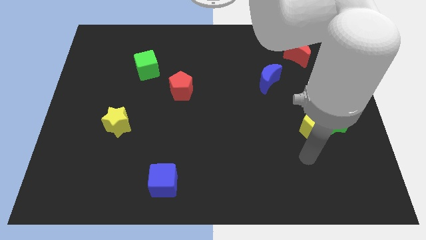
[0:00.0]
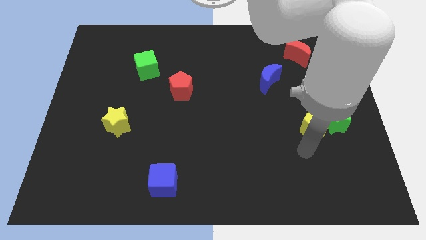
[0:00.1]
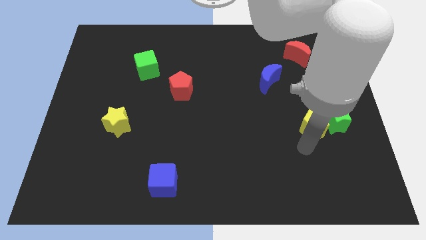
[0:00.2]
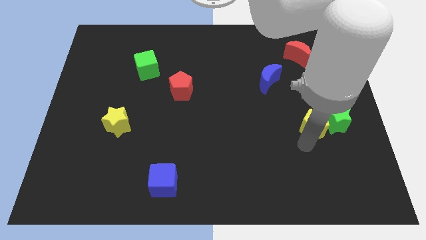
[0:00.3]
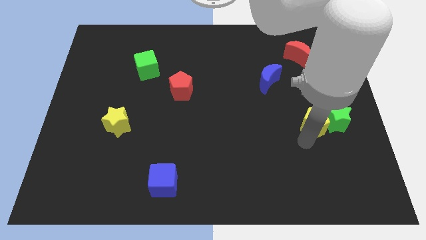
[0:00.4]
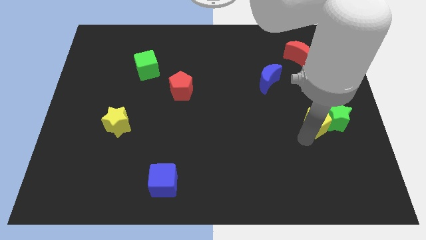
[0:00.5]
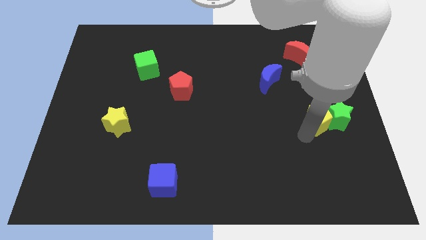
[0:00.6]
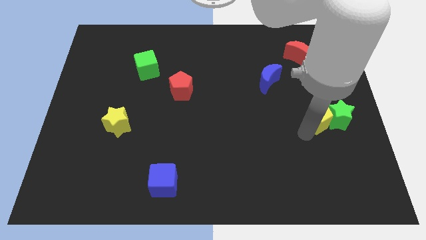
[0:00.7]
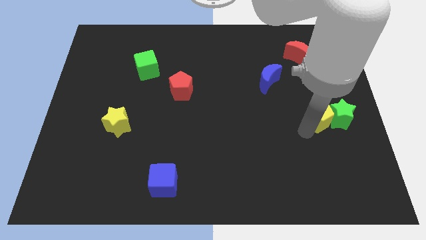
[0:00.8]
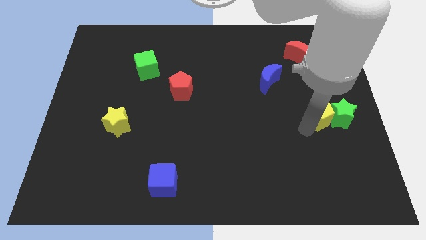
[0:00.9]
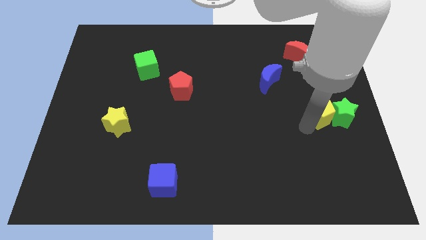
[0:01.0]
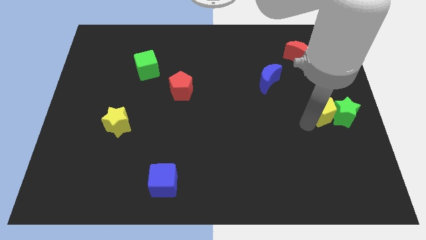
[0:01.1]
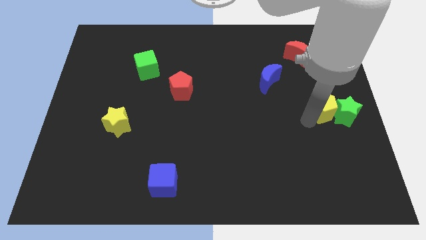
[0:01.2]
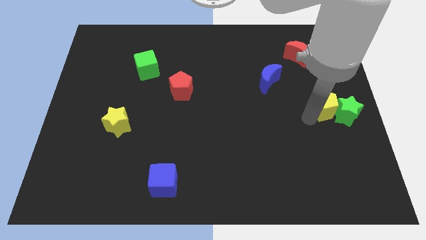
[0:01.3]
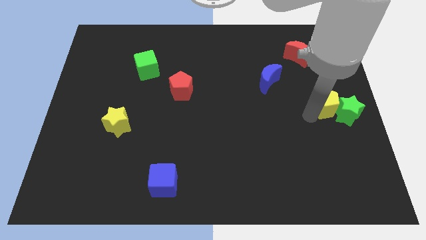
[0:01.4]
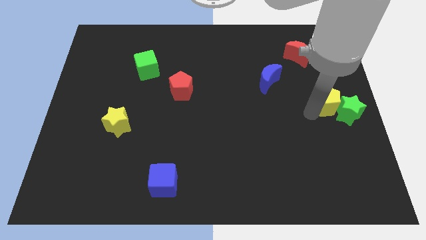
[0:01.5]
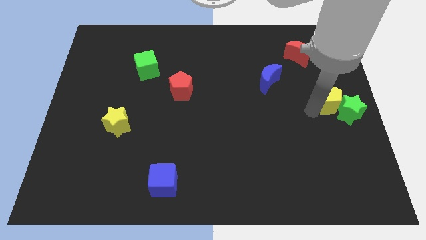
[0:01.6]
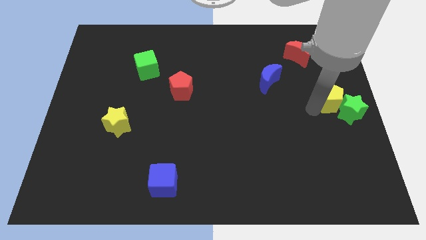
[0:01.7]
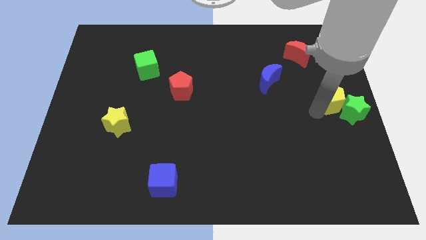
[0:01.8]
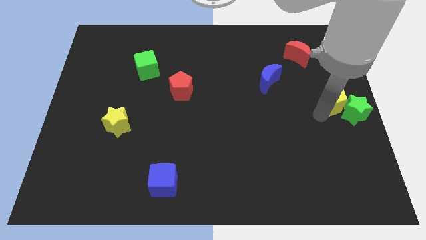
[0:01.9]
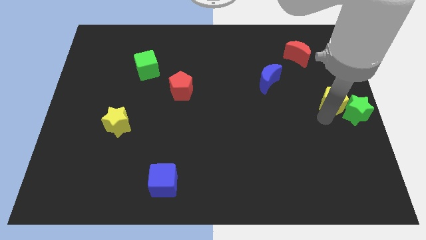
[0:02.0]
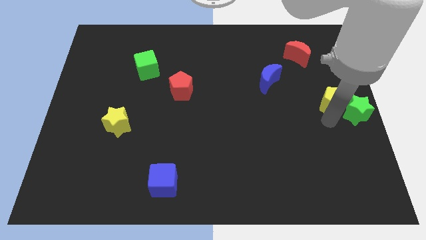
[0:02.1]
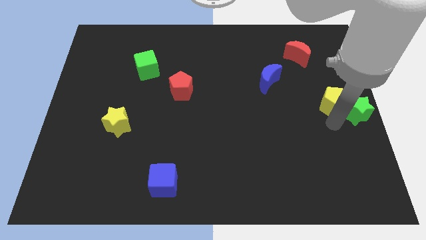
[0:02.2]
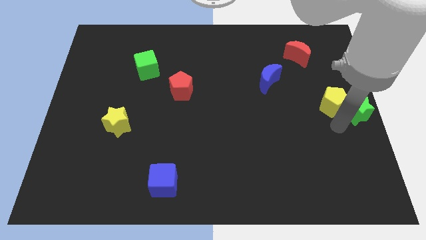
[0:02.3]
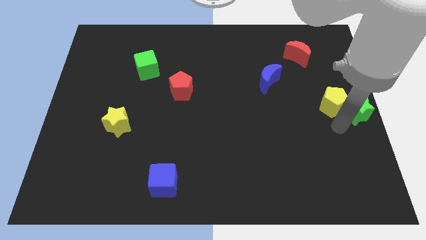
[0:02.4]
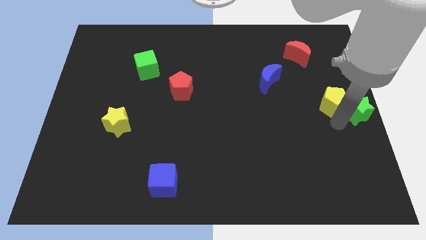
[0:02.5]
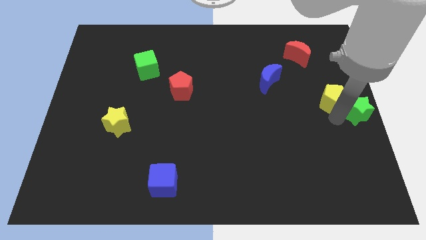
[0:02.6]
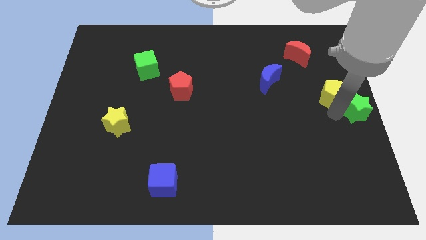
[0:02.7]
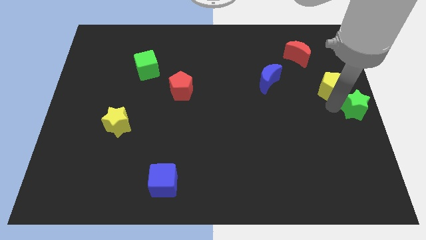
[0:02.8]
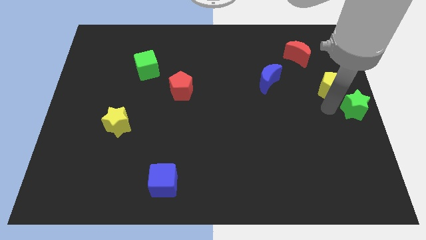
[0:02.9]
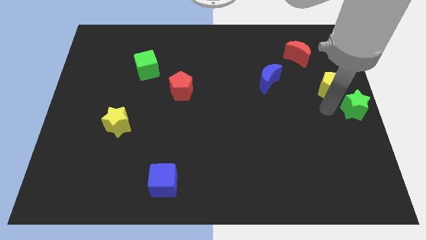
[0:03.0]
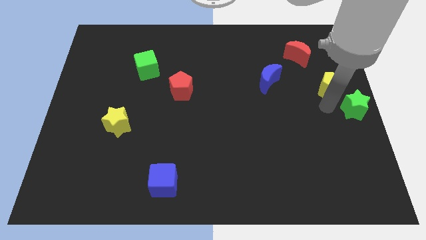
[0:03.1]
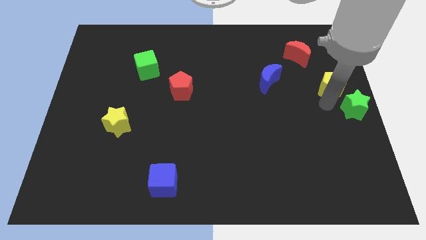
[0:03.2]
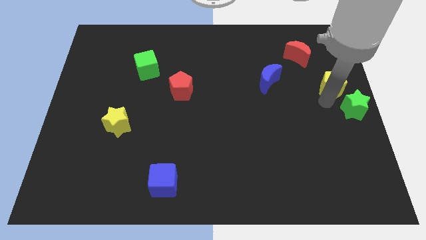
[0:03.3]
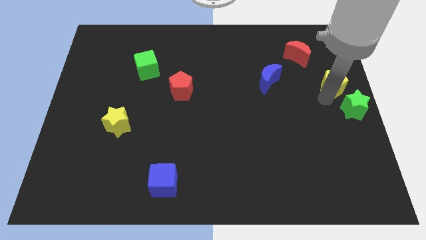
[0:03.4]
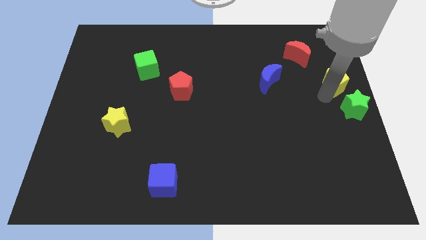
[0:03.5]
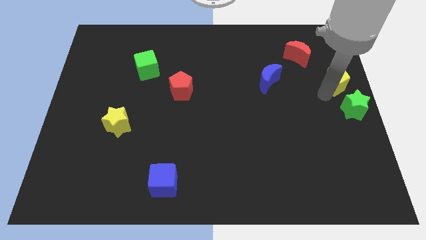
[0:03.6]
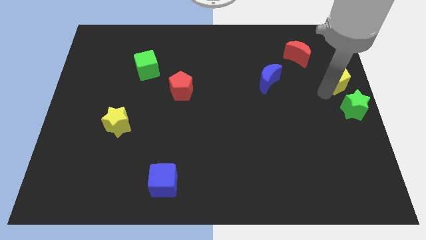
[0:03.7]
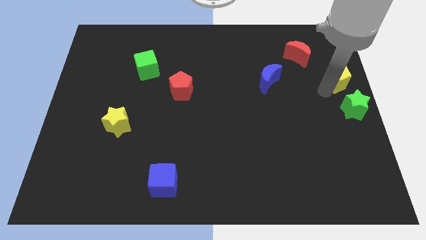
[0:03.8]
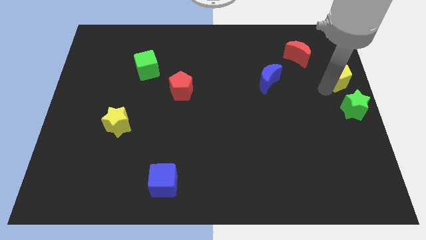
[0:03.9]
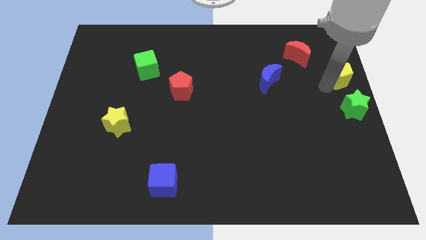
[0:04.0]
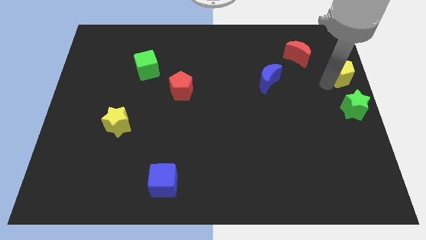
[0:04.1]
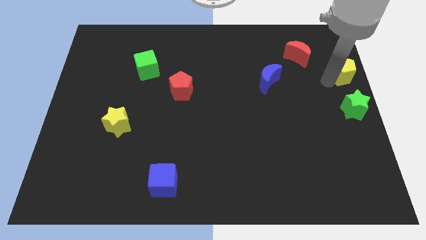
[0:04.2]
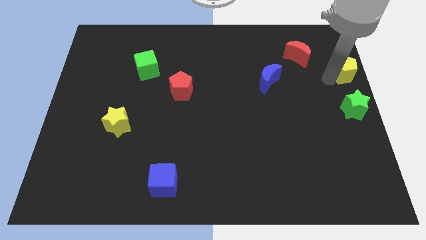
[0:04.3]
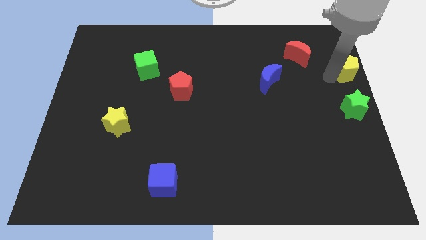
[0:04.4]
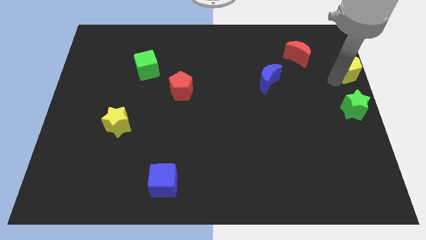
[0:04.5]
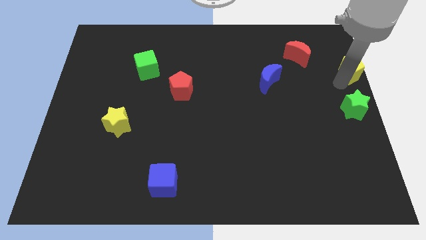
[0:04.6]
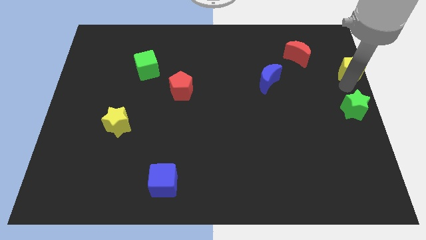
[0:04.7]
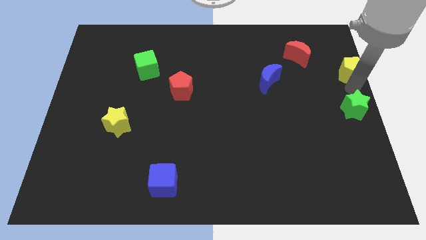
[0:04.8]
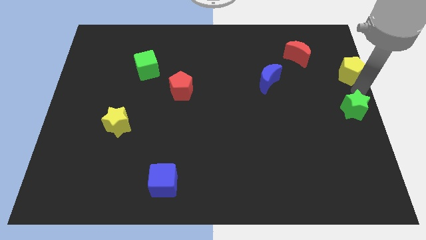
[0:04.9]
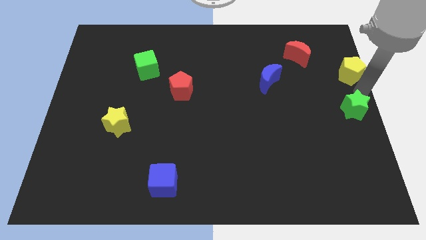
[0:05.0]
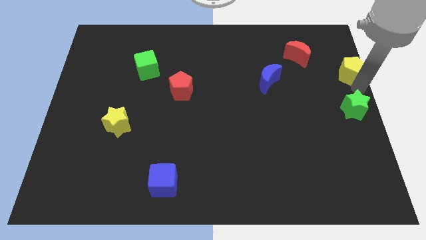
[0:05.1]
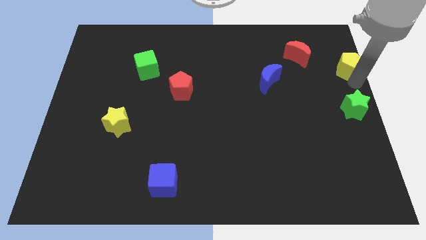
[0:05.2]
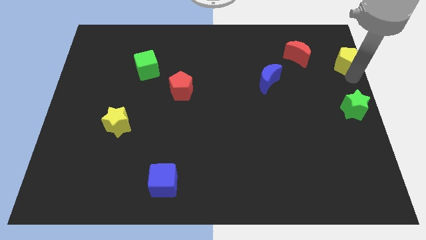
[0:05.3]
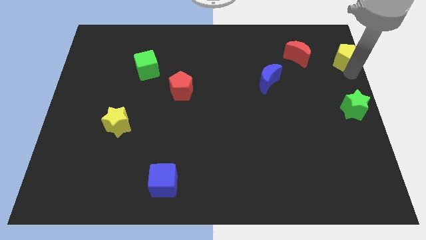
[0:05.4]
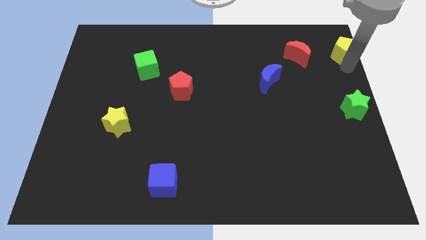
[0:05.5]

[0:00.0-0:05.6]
move the yellow pentagon to the top right of the board
